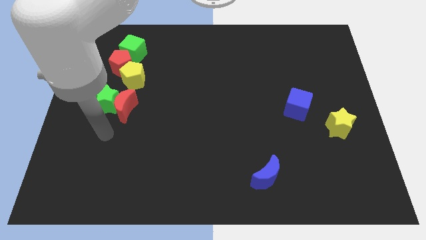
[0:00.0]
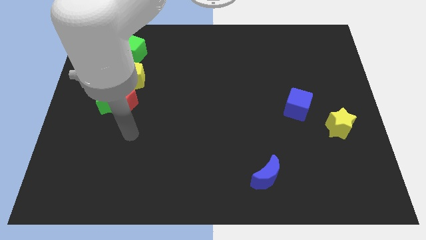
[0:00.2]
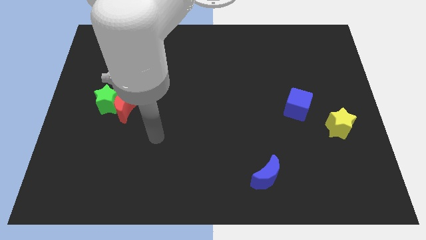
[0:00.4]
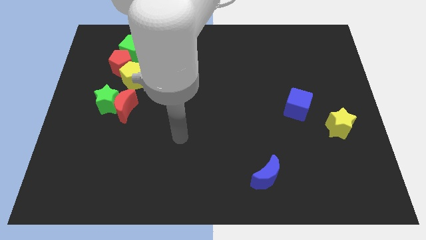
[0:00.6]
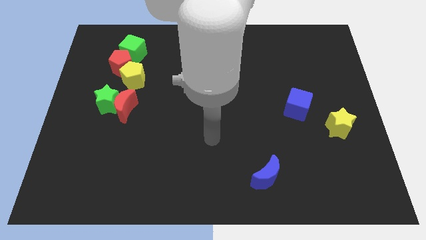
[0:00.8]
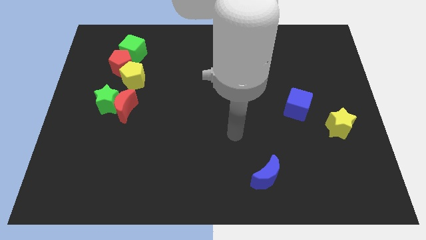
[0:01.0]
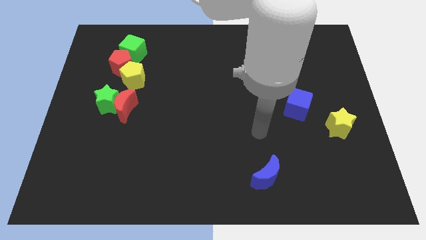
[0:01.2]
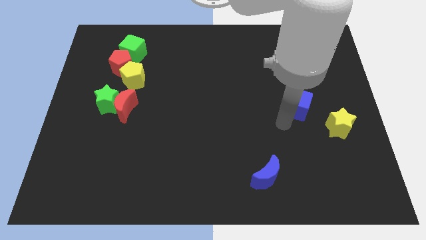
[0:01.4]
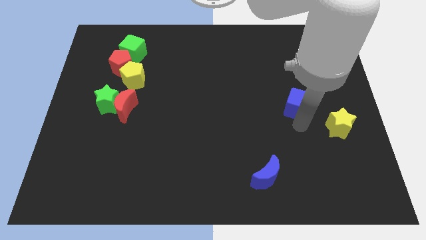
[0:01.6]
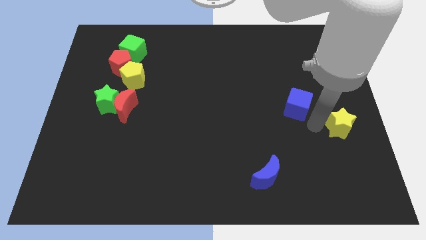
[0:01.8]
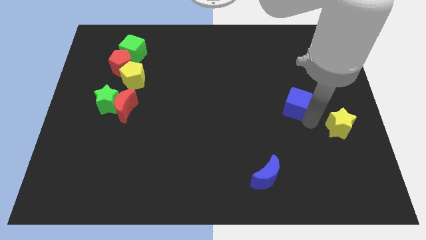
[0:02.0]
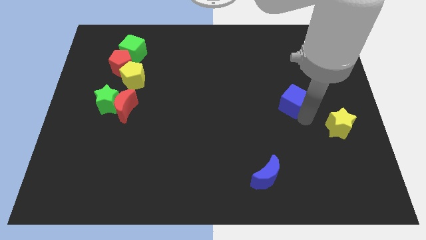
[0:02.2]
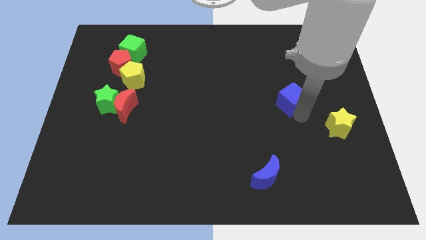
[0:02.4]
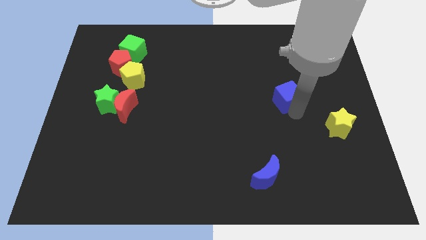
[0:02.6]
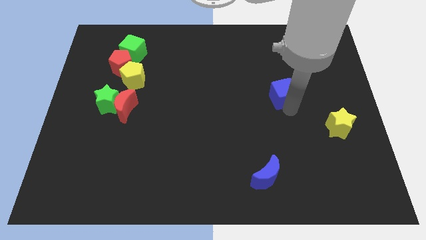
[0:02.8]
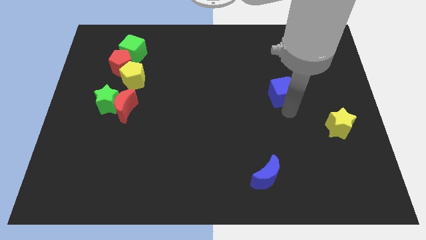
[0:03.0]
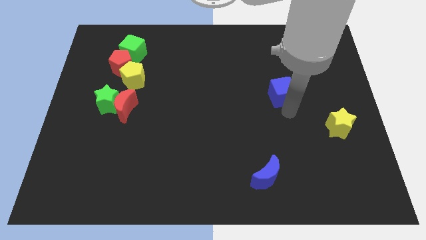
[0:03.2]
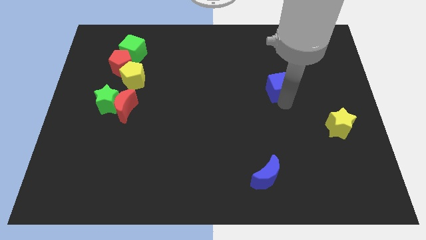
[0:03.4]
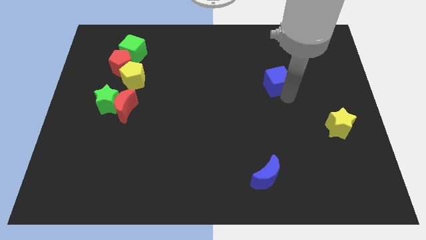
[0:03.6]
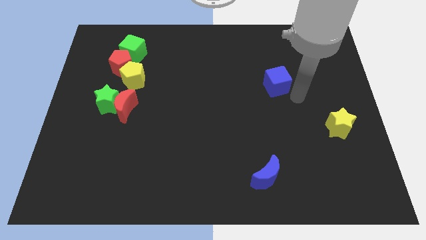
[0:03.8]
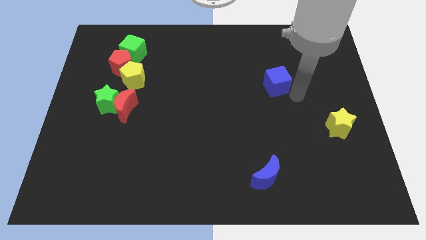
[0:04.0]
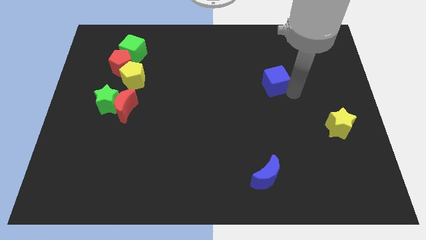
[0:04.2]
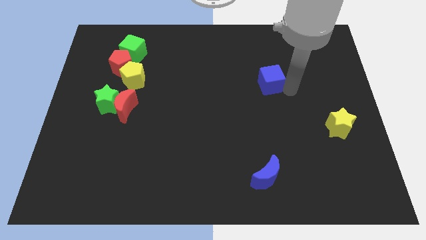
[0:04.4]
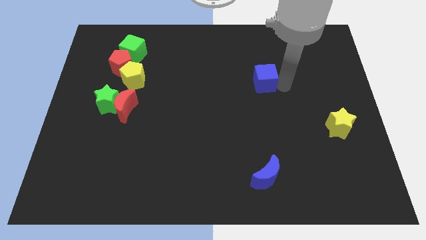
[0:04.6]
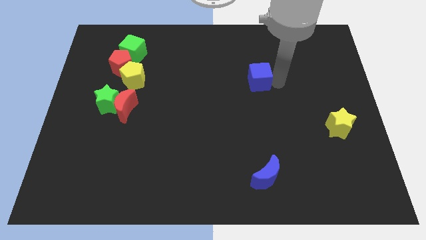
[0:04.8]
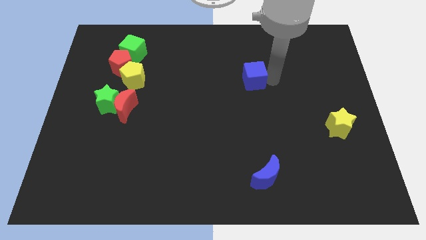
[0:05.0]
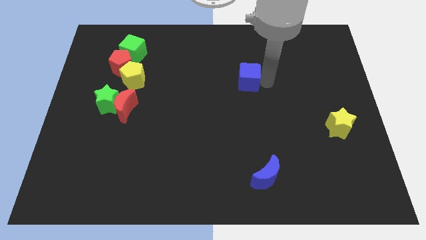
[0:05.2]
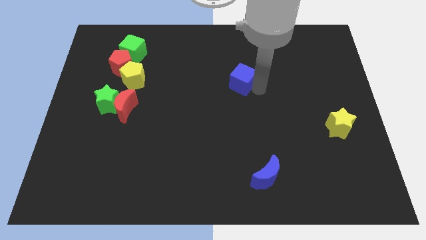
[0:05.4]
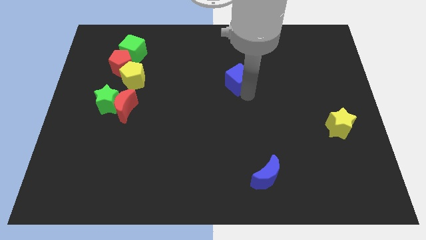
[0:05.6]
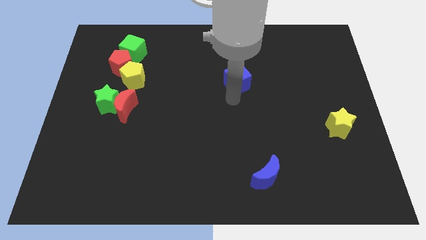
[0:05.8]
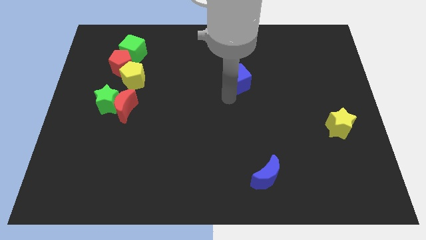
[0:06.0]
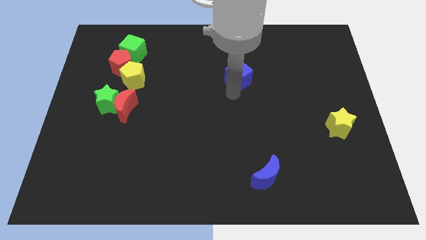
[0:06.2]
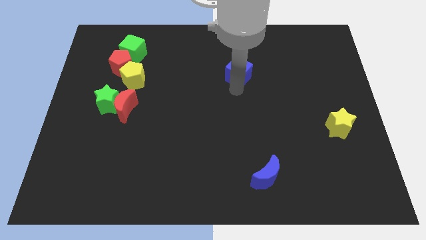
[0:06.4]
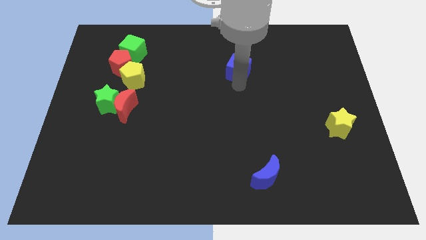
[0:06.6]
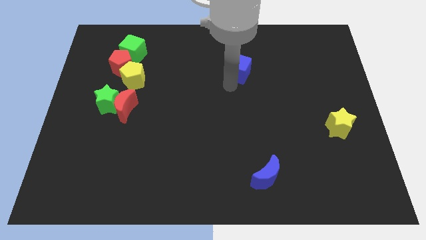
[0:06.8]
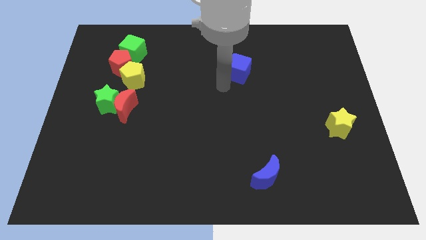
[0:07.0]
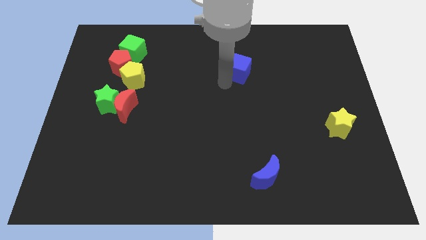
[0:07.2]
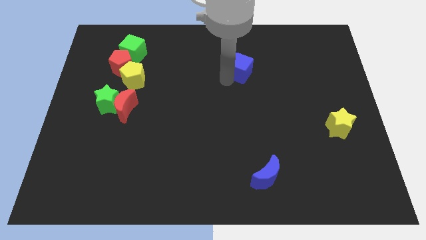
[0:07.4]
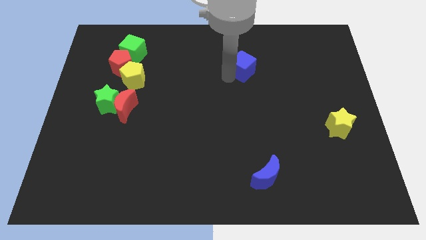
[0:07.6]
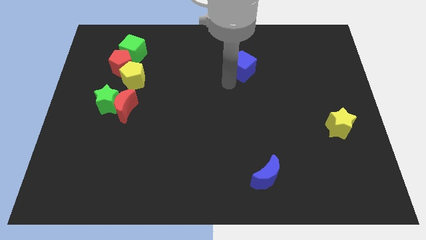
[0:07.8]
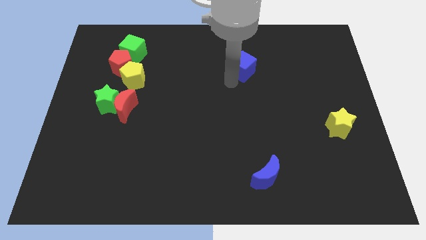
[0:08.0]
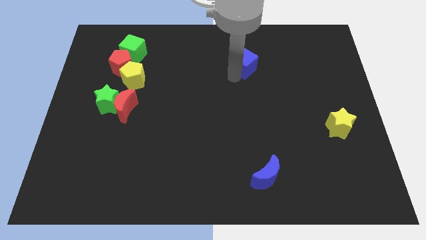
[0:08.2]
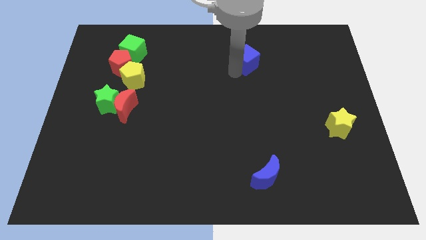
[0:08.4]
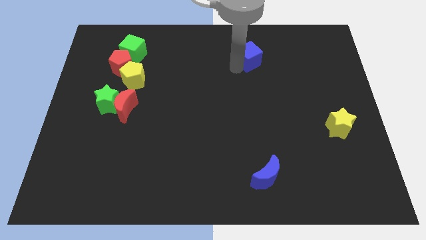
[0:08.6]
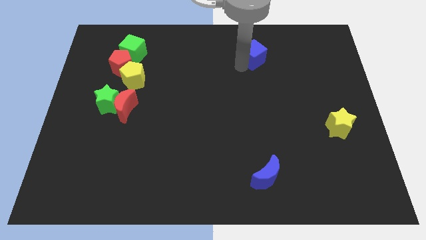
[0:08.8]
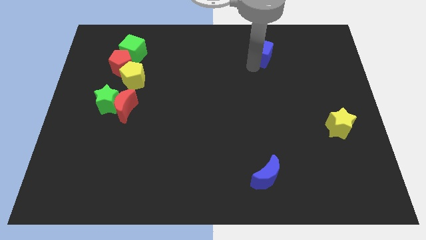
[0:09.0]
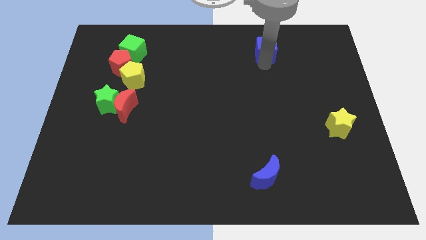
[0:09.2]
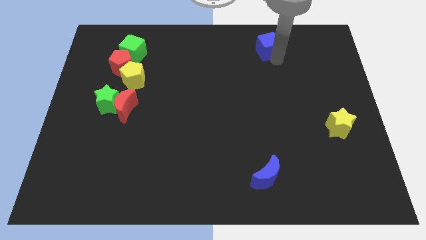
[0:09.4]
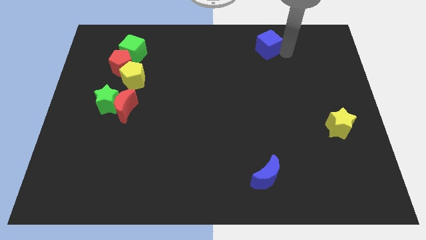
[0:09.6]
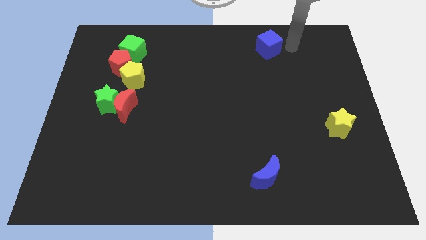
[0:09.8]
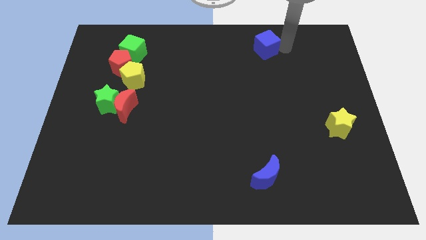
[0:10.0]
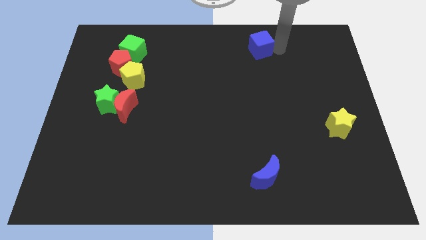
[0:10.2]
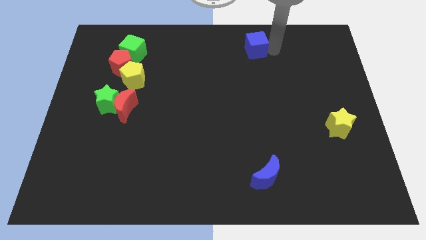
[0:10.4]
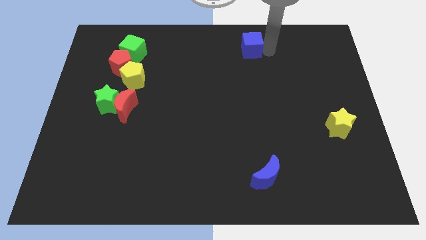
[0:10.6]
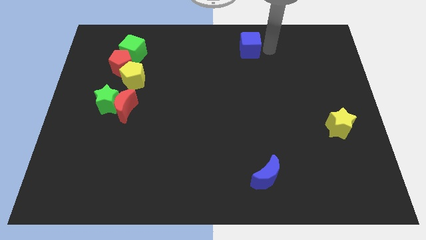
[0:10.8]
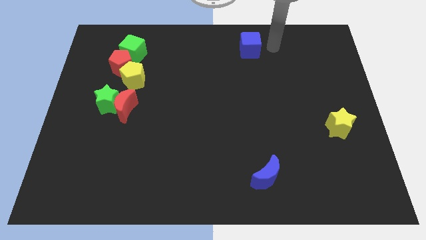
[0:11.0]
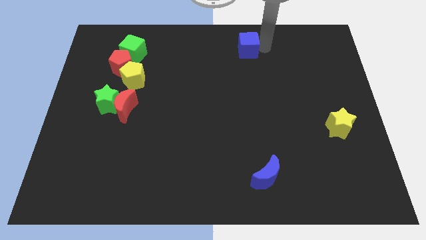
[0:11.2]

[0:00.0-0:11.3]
slide the blue cube to the towards your base
